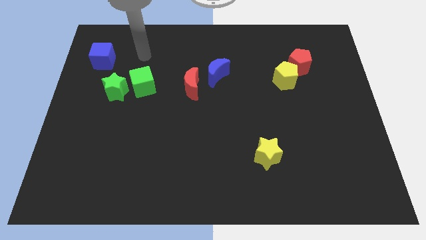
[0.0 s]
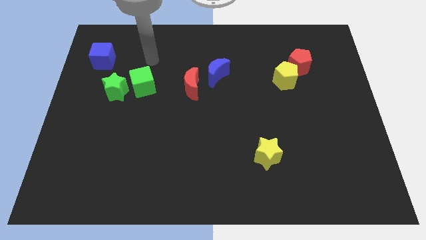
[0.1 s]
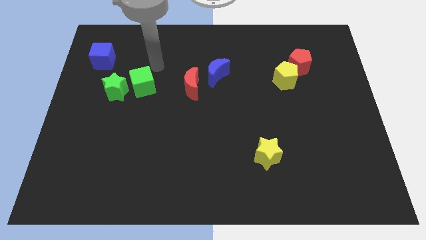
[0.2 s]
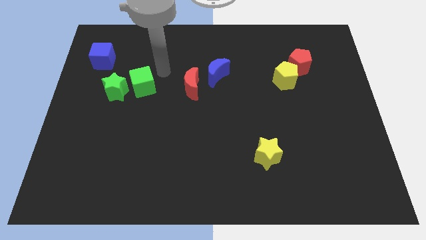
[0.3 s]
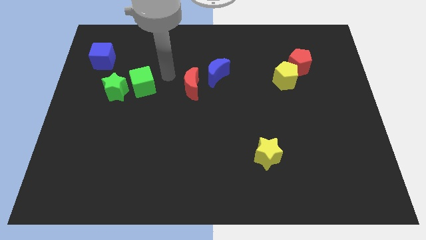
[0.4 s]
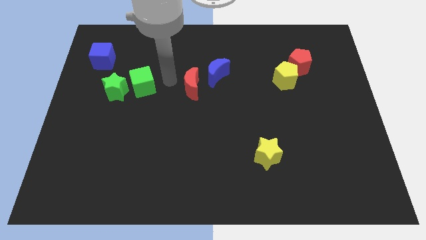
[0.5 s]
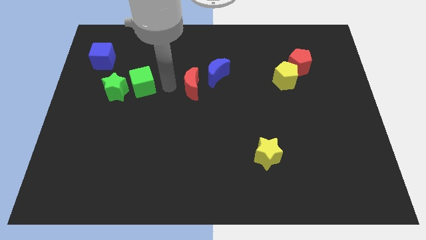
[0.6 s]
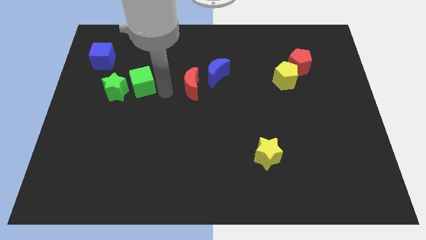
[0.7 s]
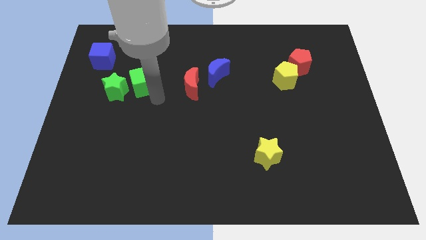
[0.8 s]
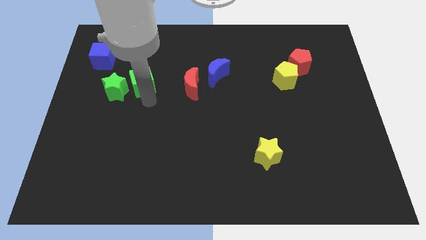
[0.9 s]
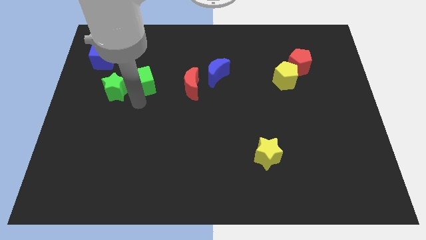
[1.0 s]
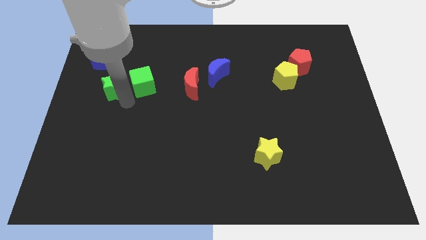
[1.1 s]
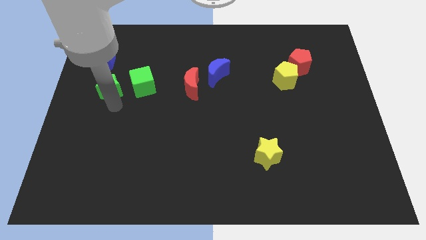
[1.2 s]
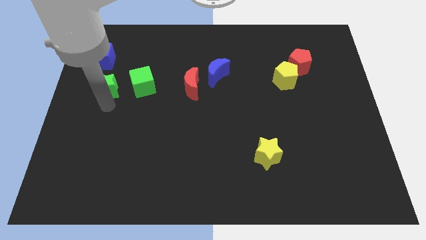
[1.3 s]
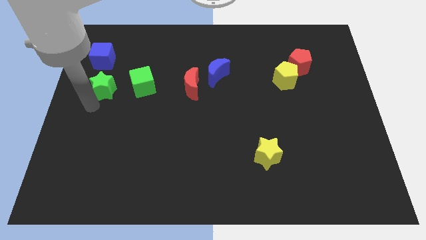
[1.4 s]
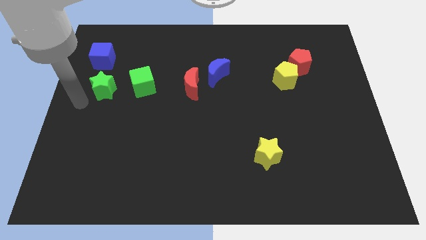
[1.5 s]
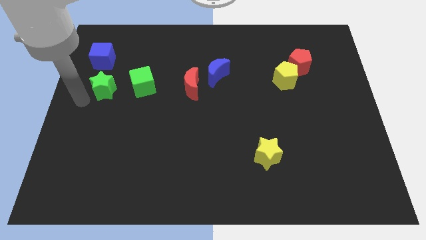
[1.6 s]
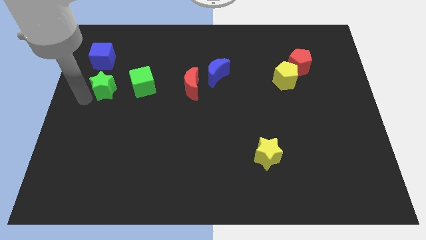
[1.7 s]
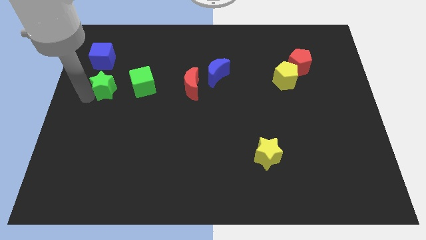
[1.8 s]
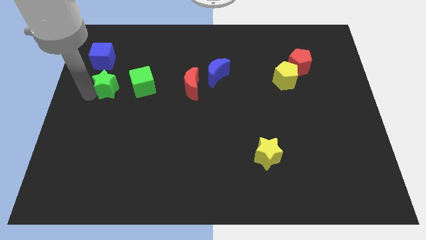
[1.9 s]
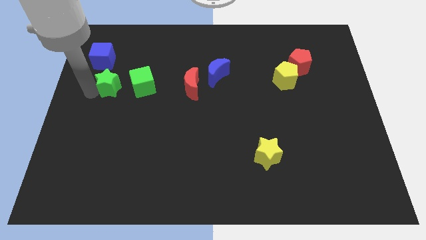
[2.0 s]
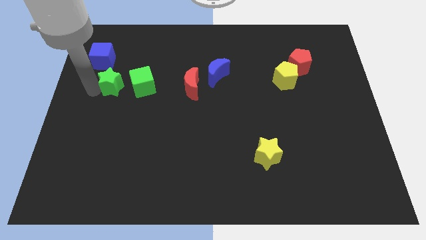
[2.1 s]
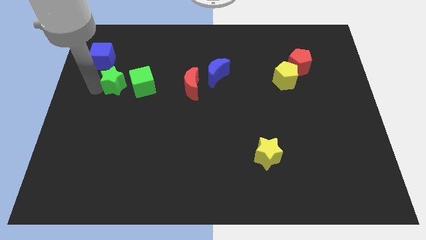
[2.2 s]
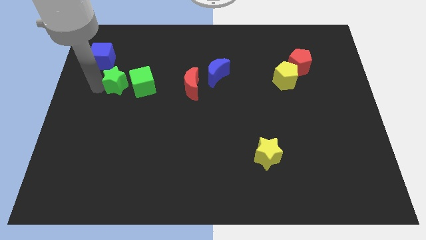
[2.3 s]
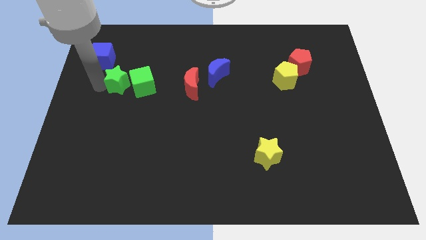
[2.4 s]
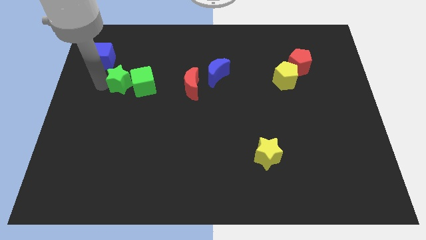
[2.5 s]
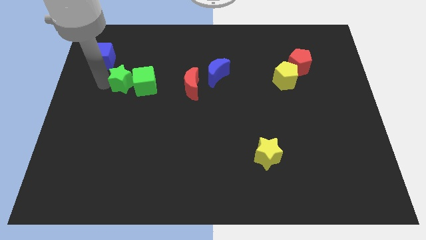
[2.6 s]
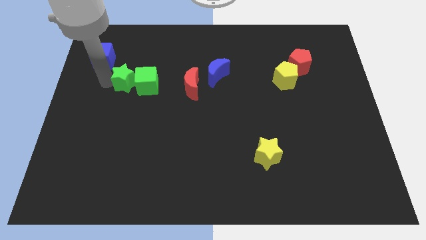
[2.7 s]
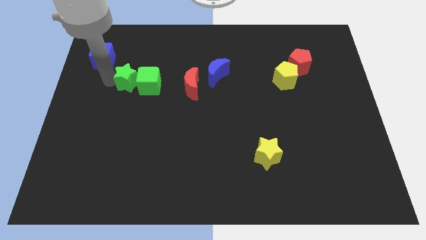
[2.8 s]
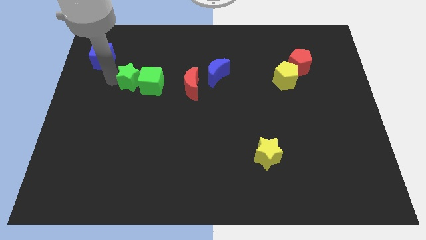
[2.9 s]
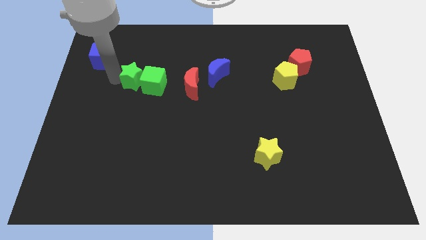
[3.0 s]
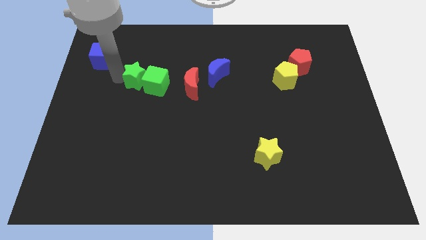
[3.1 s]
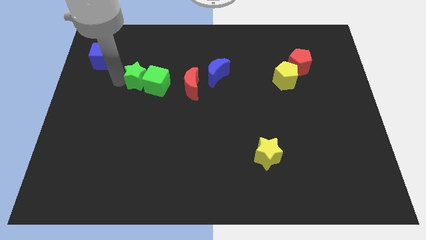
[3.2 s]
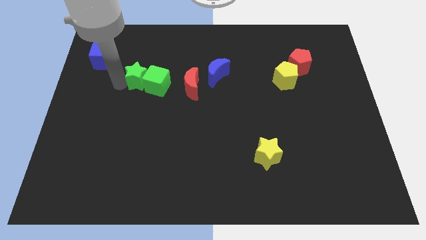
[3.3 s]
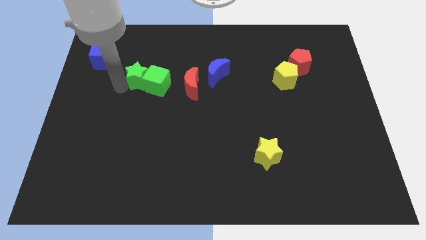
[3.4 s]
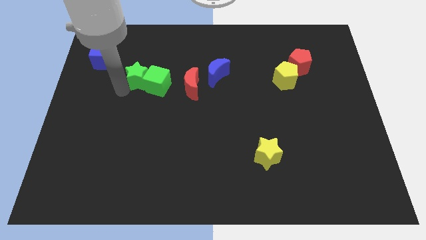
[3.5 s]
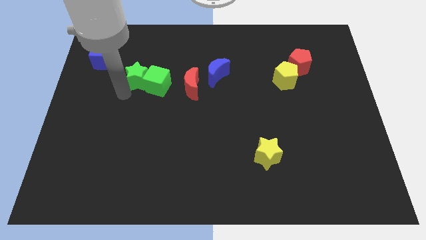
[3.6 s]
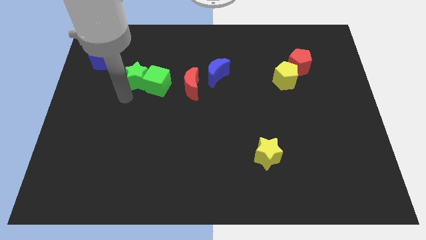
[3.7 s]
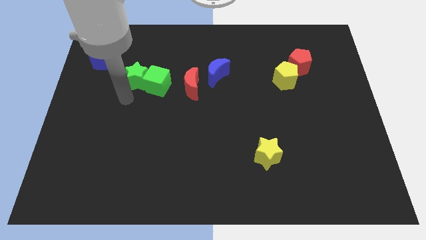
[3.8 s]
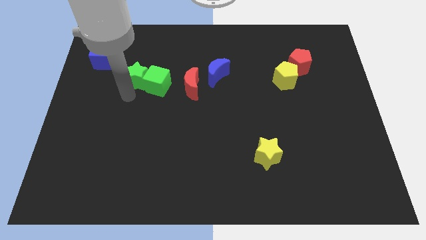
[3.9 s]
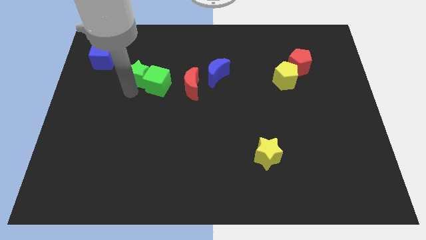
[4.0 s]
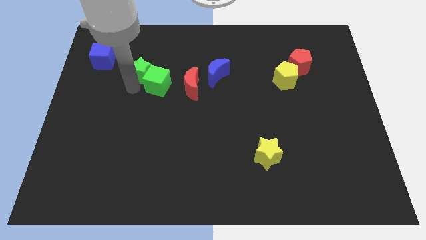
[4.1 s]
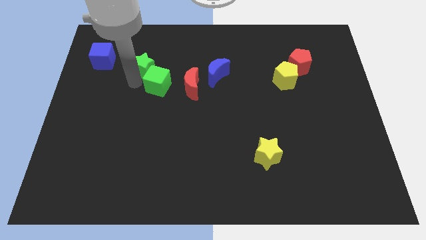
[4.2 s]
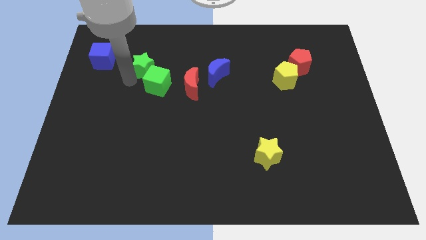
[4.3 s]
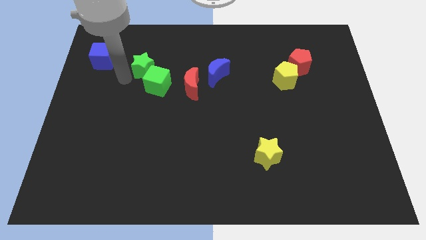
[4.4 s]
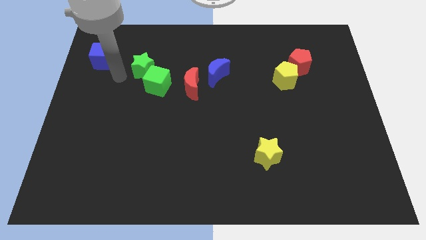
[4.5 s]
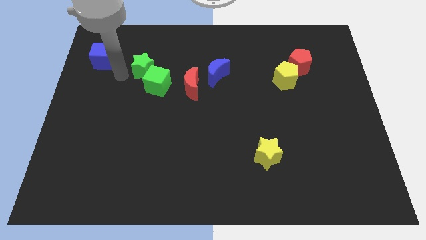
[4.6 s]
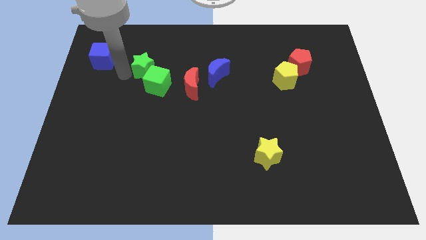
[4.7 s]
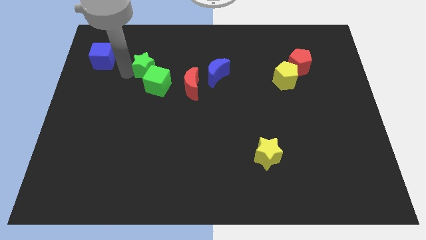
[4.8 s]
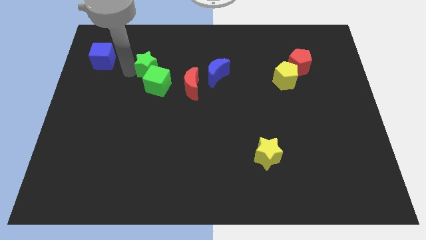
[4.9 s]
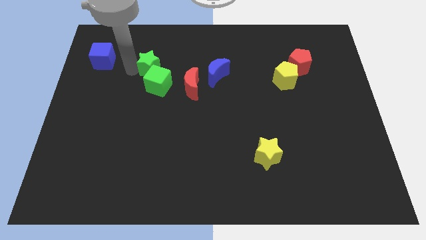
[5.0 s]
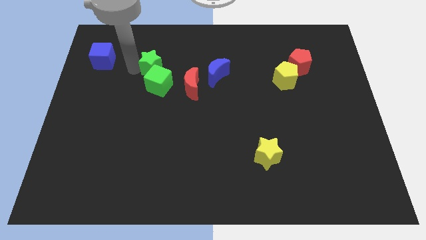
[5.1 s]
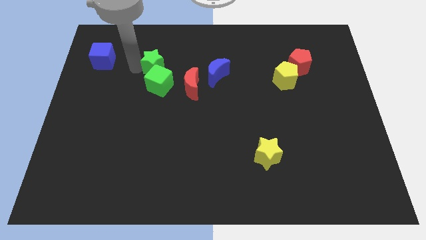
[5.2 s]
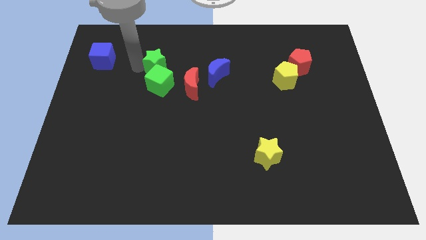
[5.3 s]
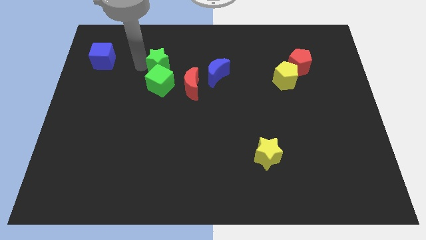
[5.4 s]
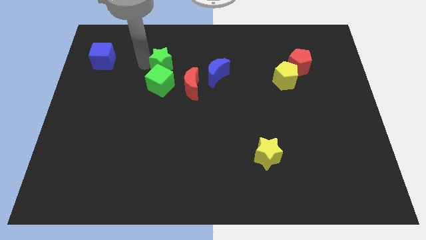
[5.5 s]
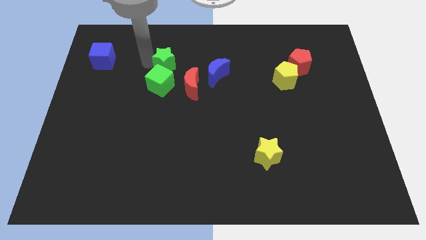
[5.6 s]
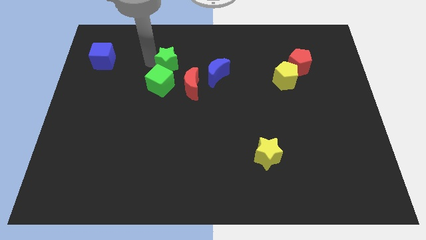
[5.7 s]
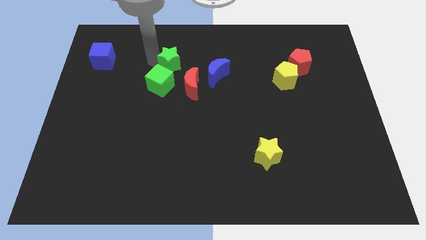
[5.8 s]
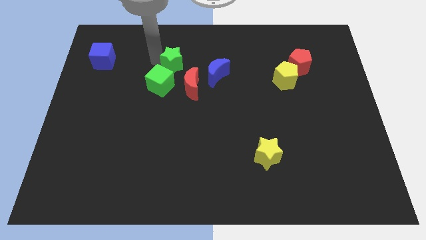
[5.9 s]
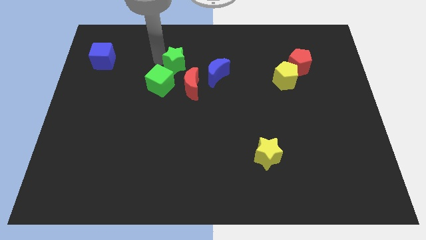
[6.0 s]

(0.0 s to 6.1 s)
slide the green star above the red moon

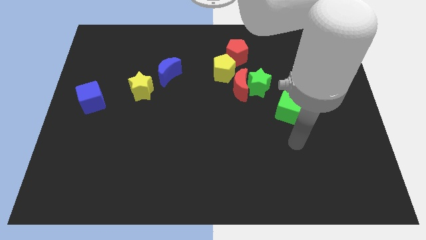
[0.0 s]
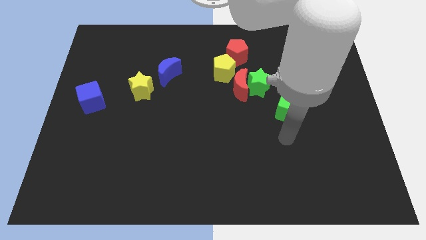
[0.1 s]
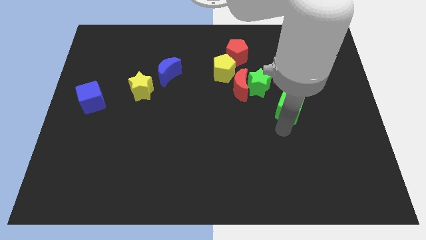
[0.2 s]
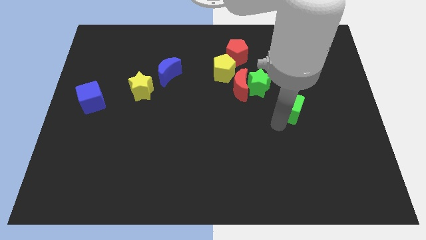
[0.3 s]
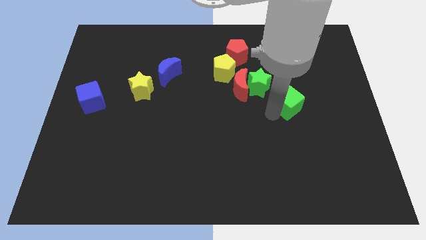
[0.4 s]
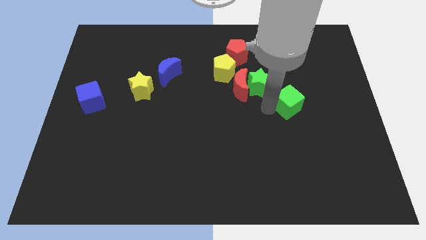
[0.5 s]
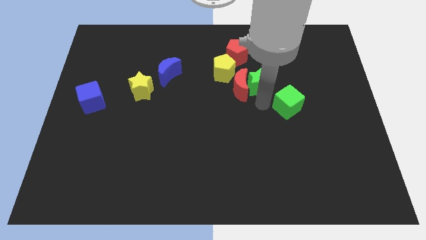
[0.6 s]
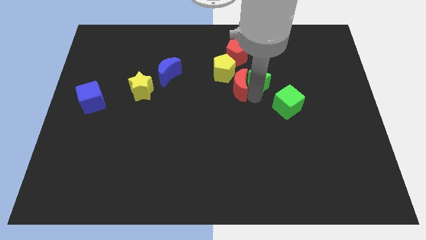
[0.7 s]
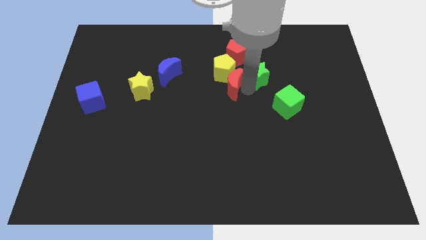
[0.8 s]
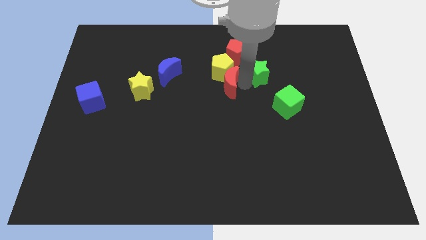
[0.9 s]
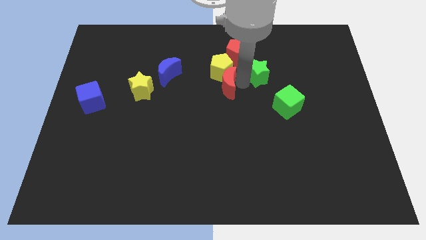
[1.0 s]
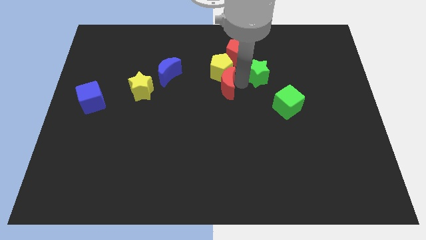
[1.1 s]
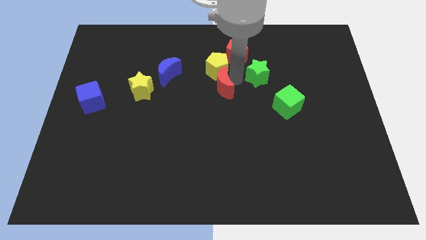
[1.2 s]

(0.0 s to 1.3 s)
slide the yellow pentagon to the left of the red pentagon
